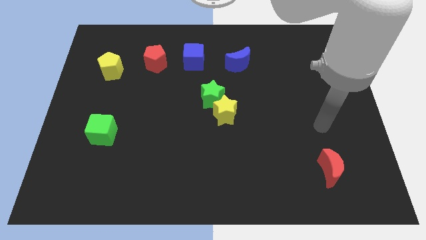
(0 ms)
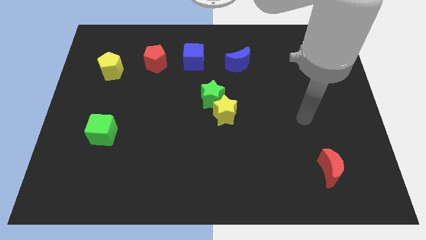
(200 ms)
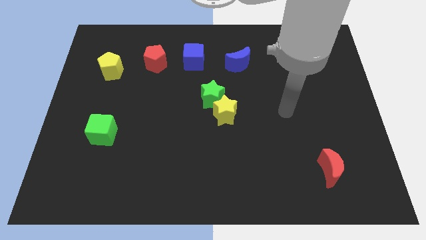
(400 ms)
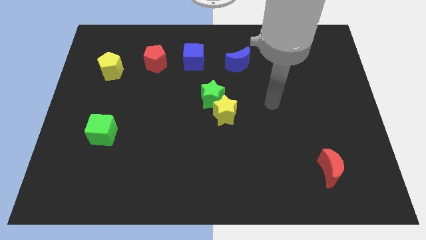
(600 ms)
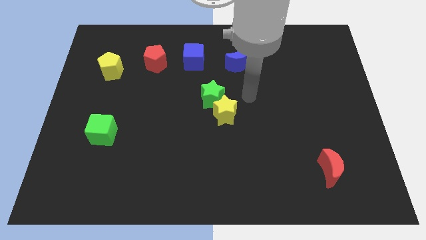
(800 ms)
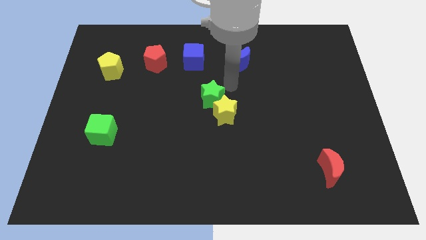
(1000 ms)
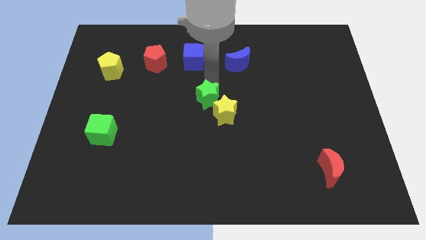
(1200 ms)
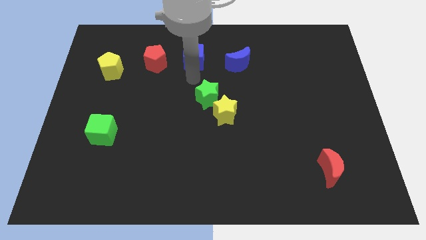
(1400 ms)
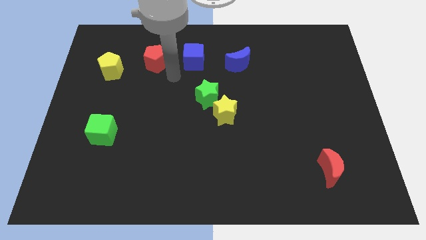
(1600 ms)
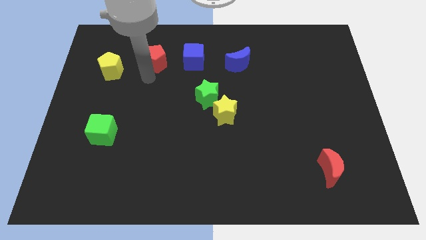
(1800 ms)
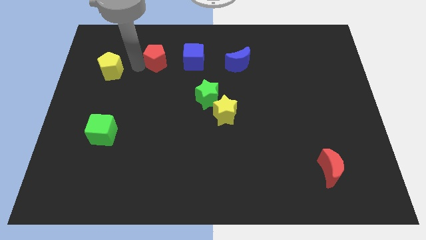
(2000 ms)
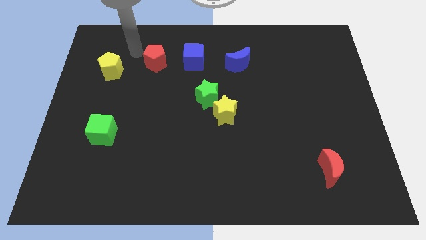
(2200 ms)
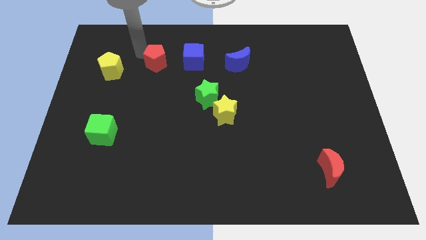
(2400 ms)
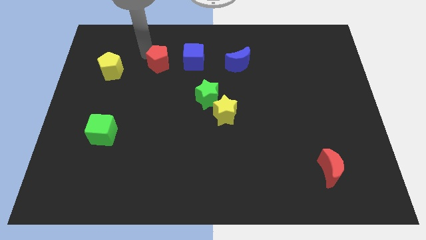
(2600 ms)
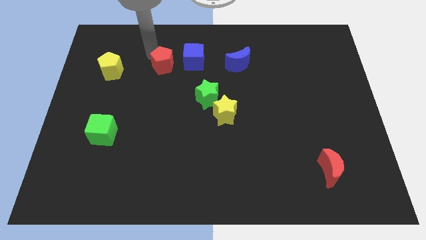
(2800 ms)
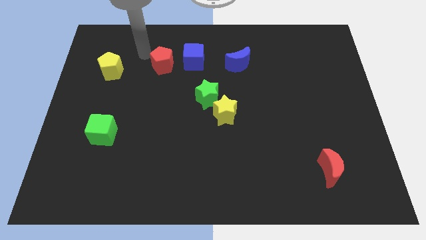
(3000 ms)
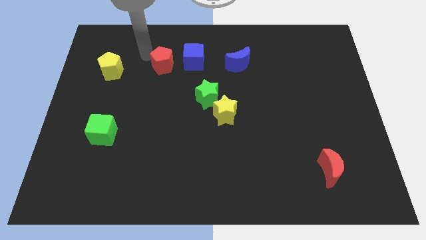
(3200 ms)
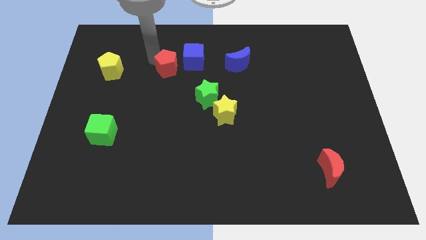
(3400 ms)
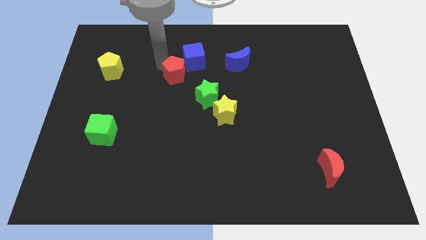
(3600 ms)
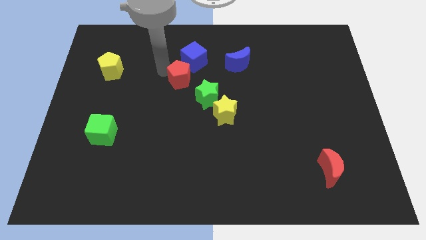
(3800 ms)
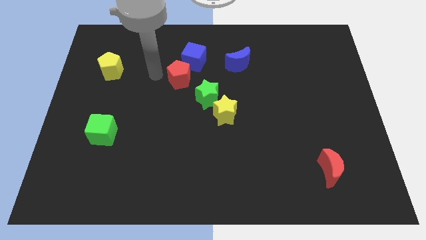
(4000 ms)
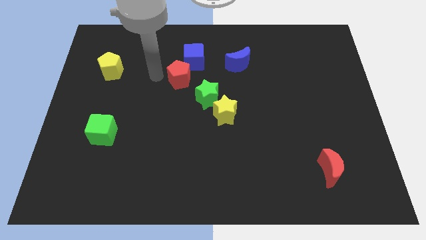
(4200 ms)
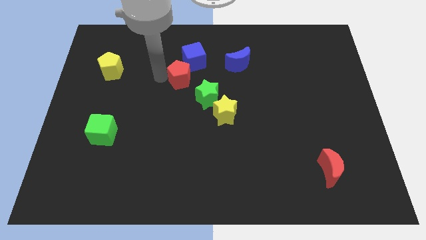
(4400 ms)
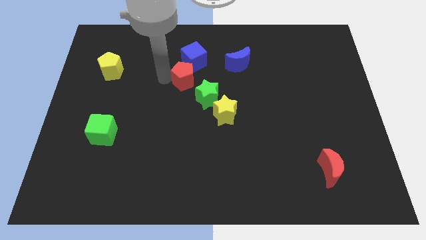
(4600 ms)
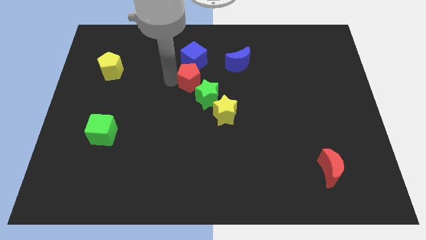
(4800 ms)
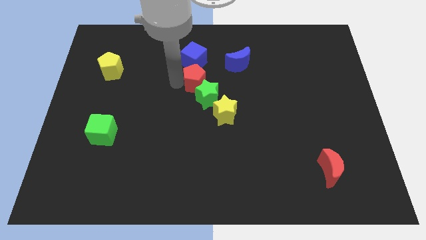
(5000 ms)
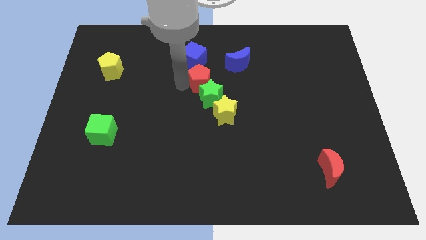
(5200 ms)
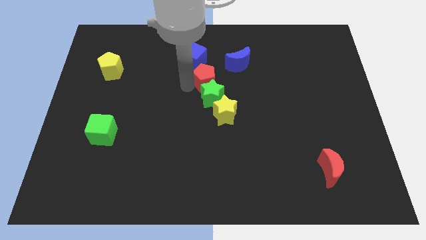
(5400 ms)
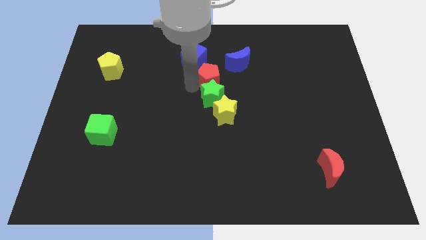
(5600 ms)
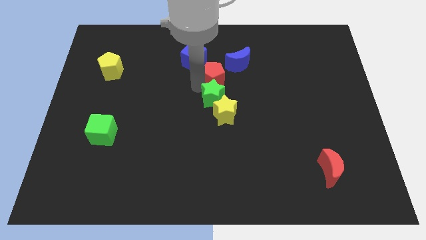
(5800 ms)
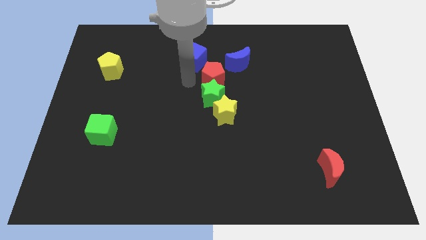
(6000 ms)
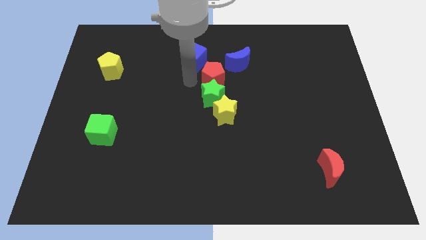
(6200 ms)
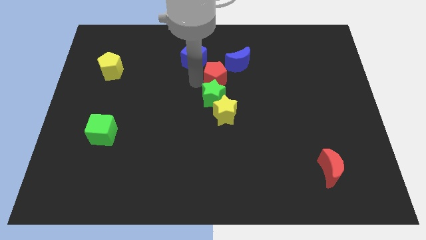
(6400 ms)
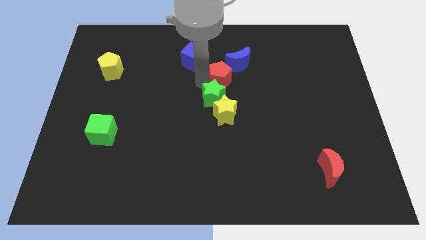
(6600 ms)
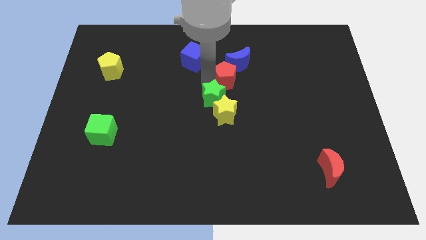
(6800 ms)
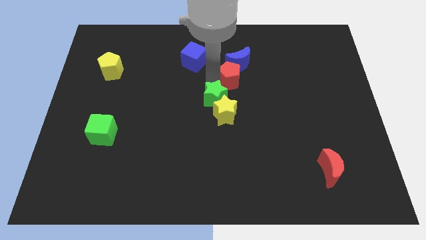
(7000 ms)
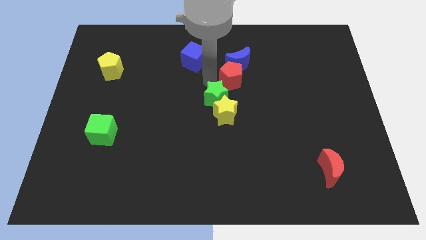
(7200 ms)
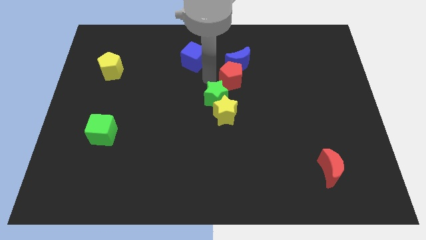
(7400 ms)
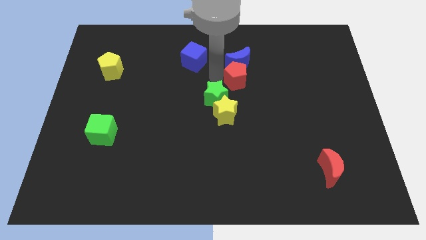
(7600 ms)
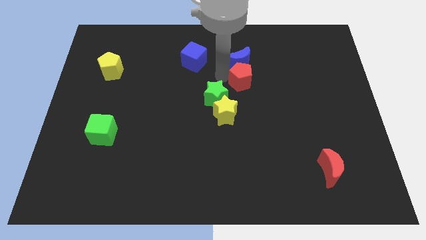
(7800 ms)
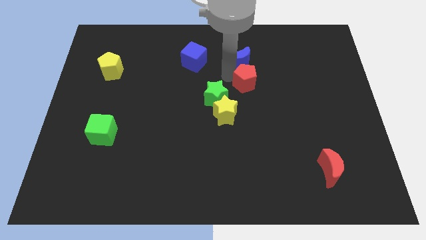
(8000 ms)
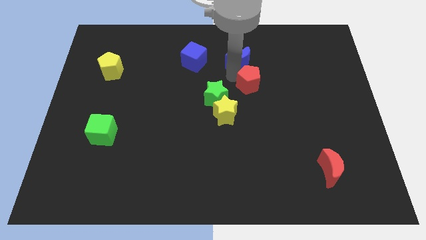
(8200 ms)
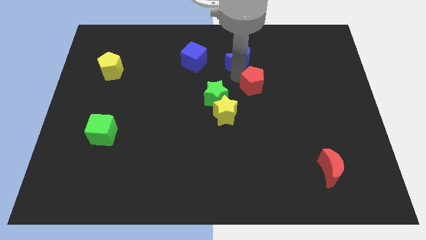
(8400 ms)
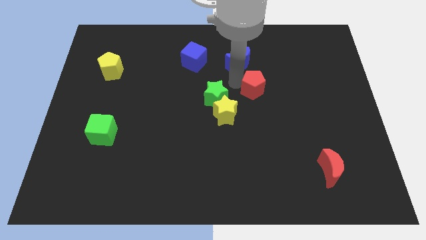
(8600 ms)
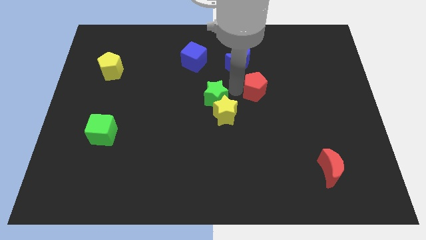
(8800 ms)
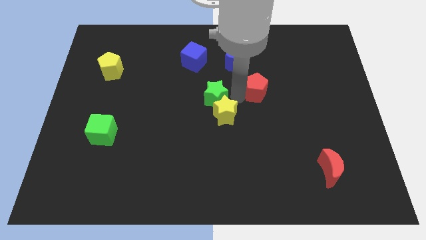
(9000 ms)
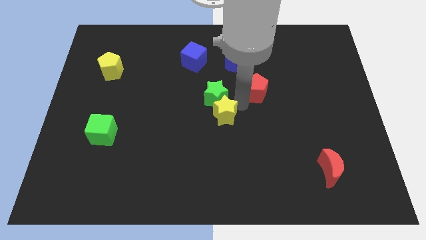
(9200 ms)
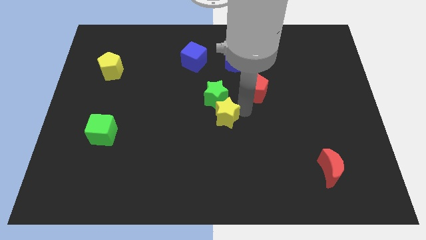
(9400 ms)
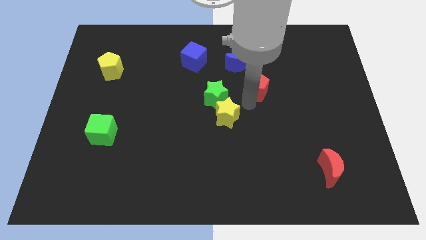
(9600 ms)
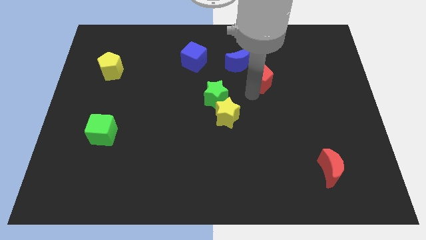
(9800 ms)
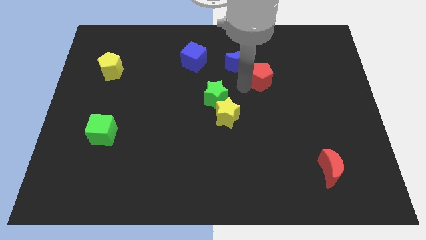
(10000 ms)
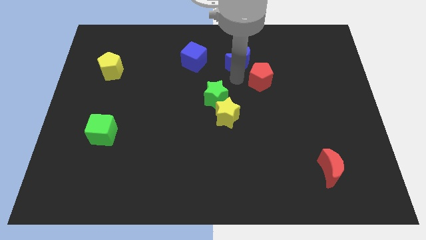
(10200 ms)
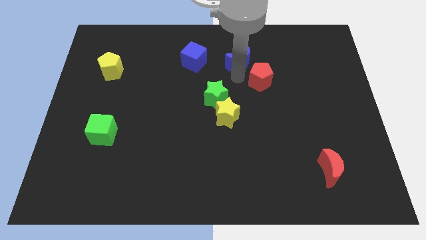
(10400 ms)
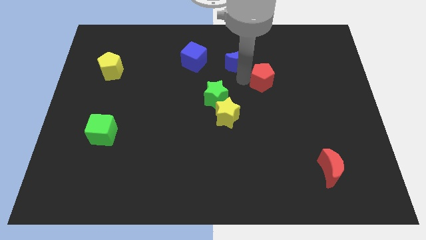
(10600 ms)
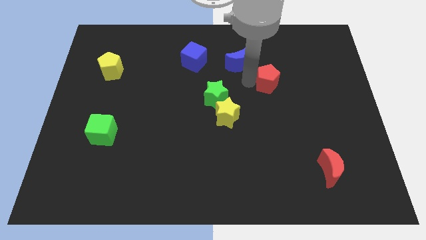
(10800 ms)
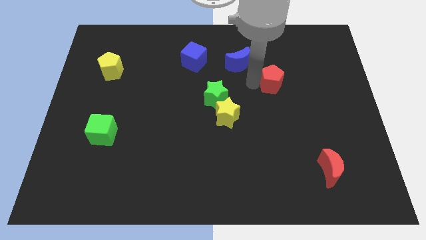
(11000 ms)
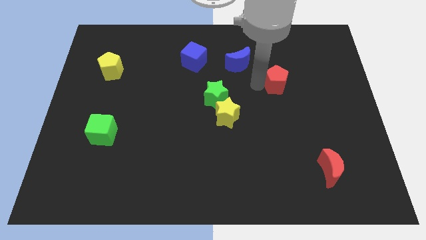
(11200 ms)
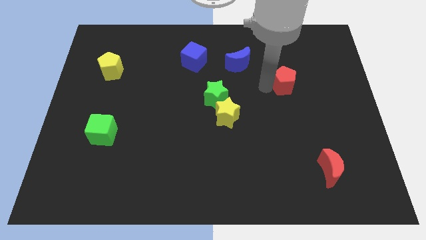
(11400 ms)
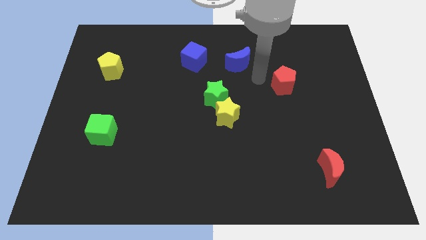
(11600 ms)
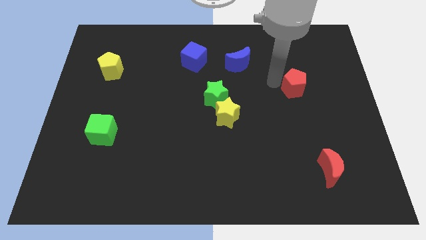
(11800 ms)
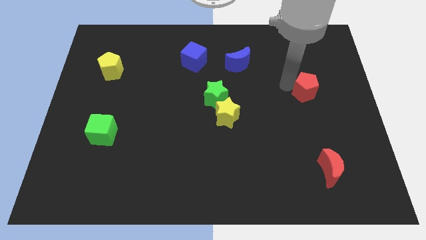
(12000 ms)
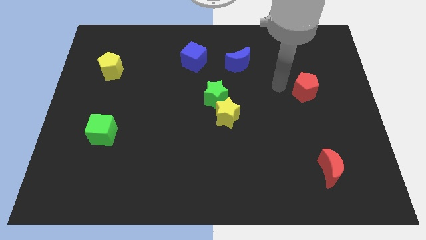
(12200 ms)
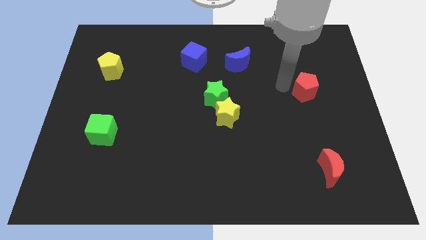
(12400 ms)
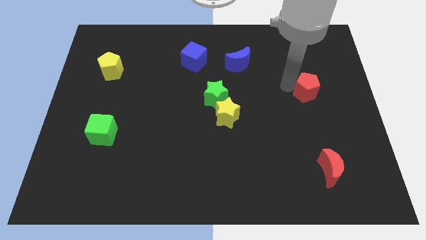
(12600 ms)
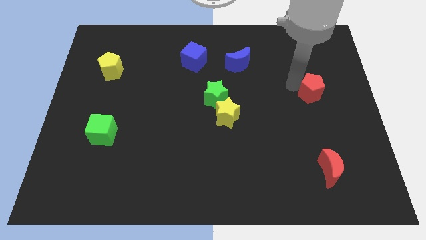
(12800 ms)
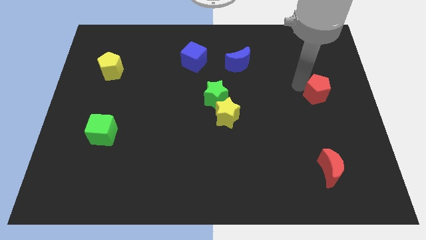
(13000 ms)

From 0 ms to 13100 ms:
push the red pentagon to the center right
